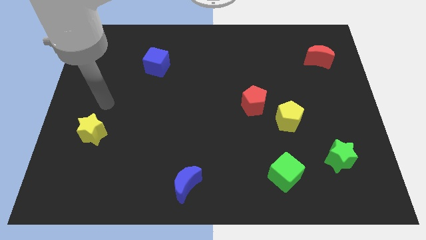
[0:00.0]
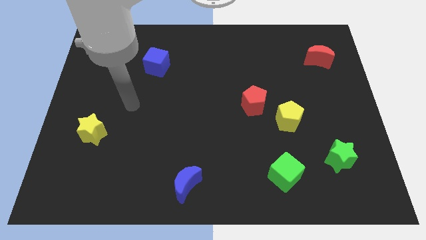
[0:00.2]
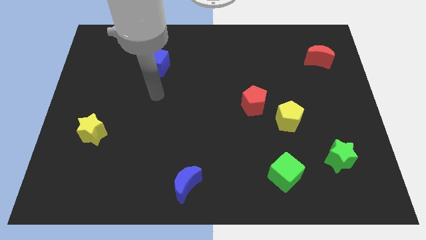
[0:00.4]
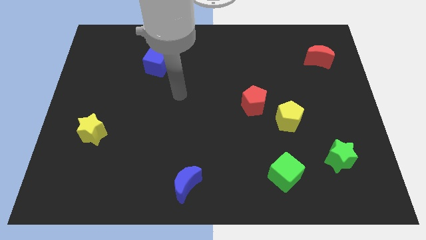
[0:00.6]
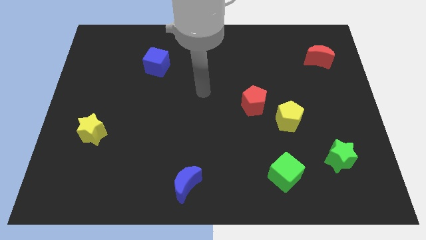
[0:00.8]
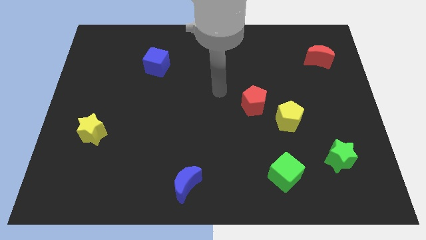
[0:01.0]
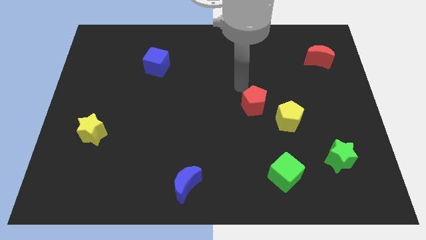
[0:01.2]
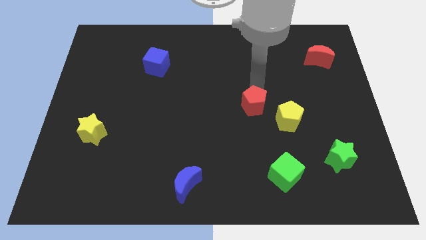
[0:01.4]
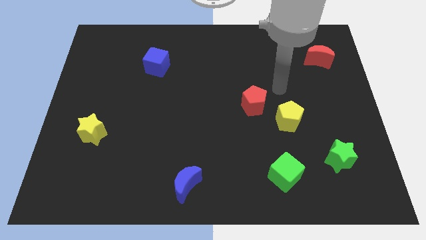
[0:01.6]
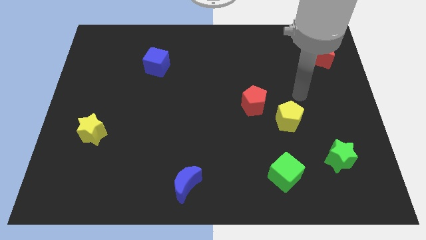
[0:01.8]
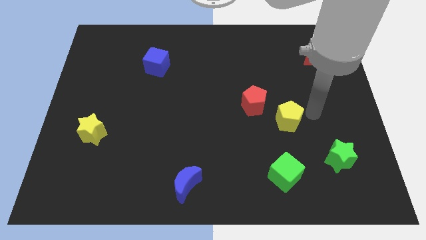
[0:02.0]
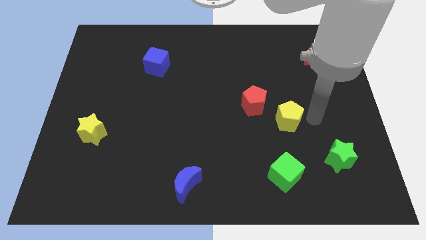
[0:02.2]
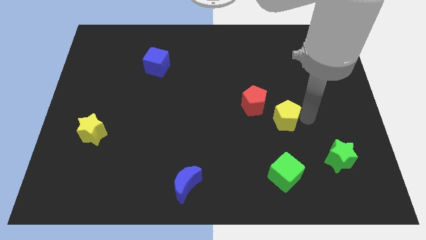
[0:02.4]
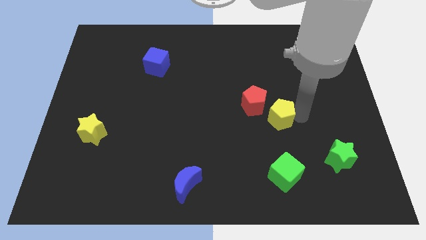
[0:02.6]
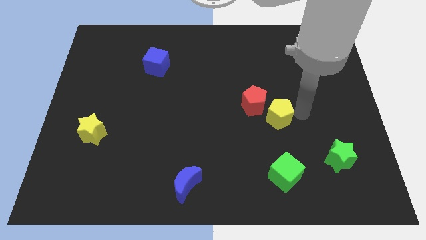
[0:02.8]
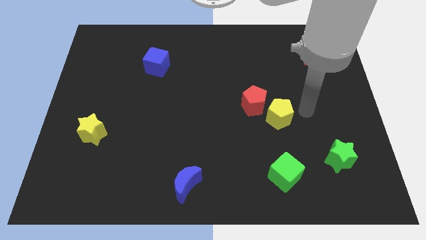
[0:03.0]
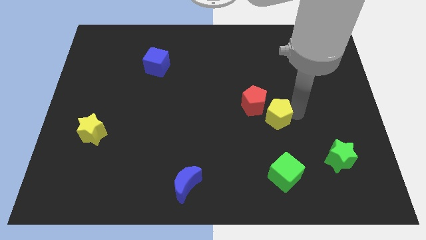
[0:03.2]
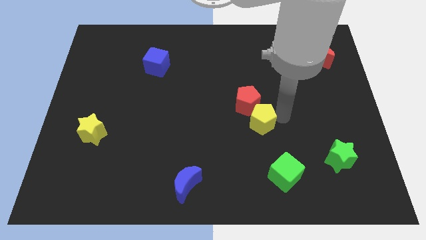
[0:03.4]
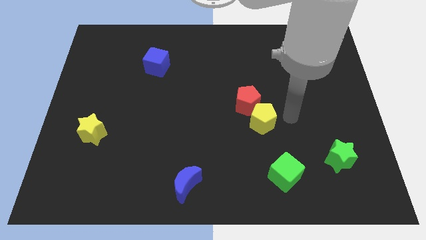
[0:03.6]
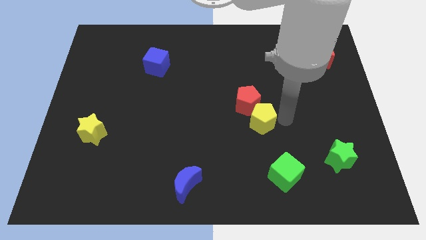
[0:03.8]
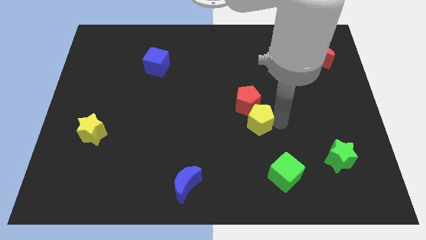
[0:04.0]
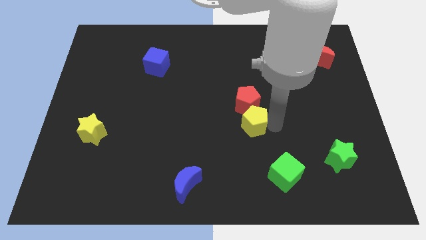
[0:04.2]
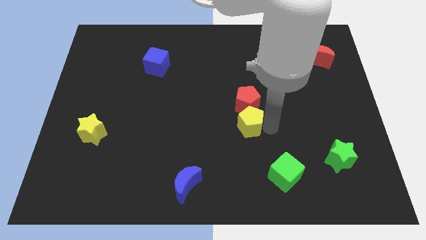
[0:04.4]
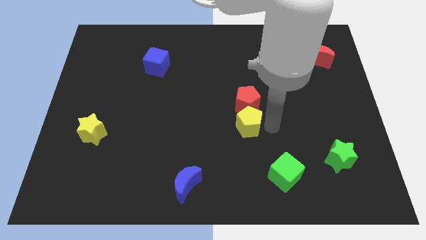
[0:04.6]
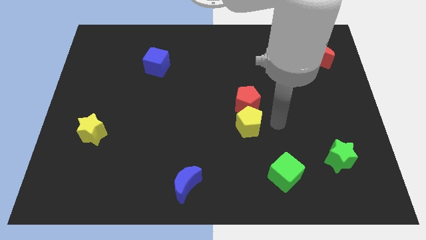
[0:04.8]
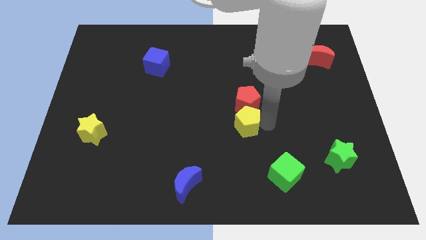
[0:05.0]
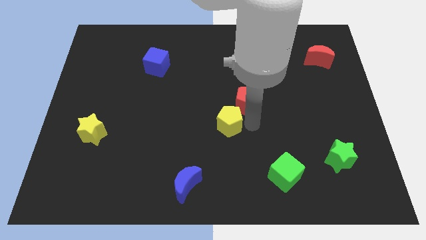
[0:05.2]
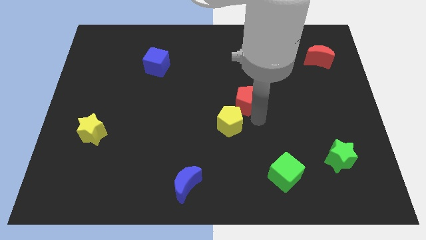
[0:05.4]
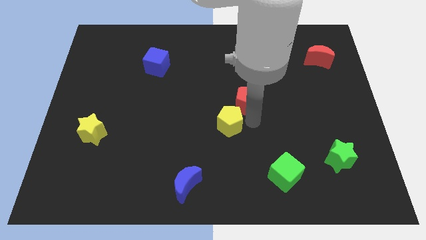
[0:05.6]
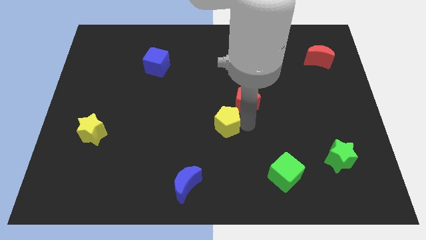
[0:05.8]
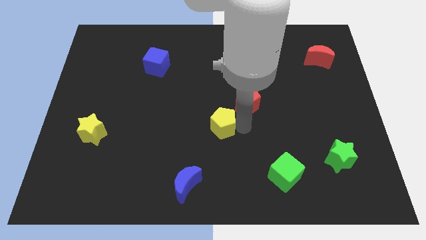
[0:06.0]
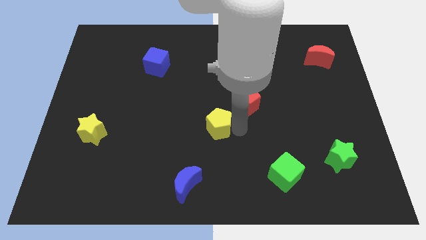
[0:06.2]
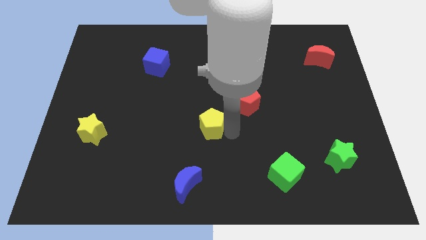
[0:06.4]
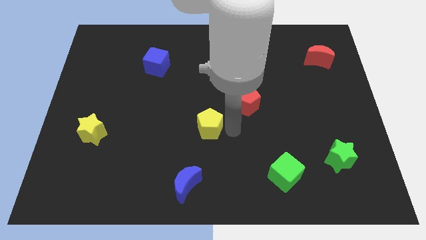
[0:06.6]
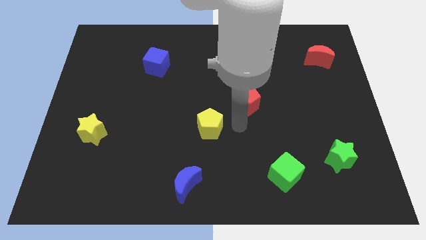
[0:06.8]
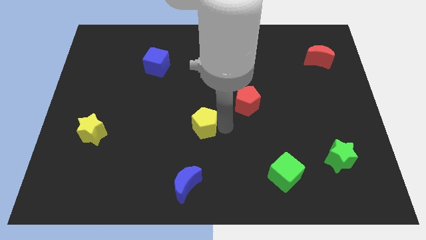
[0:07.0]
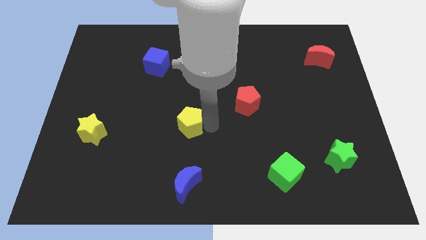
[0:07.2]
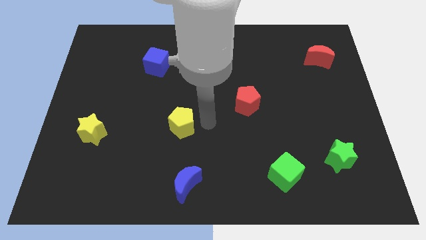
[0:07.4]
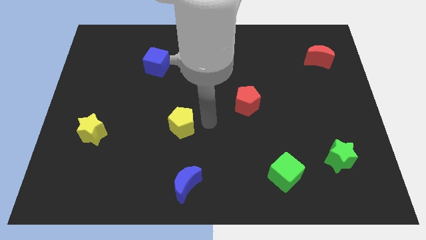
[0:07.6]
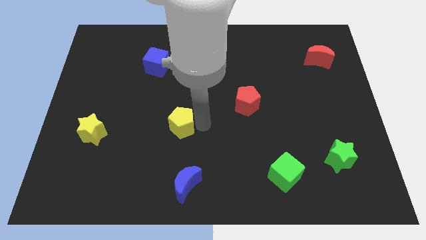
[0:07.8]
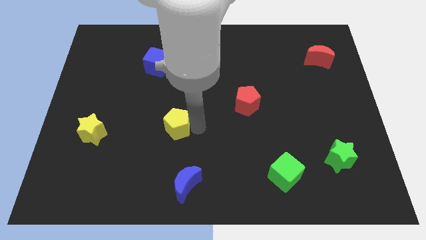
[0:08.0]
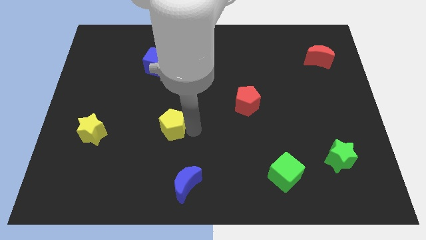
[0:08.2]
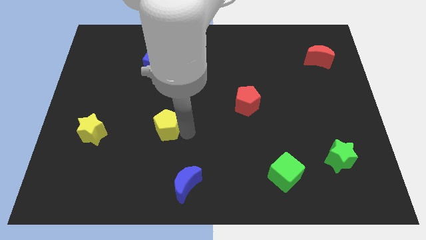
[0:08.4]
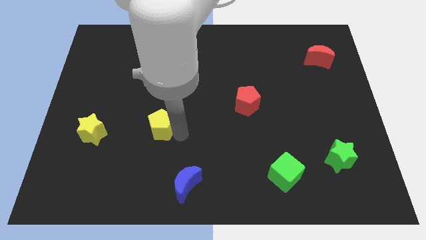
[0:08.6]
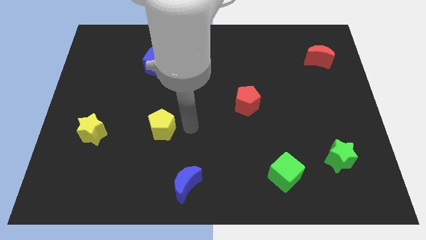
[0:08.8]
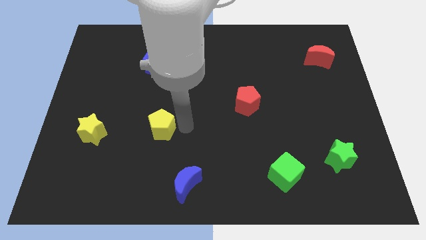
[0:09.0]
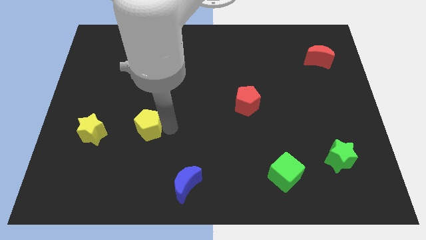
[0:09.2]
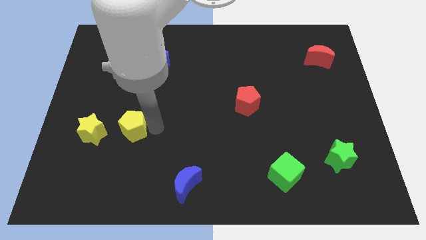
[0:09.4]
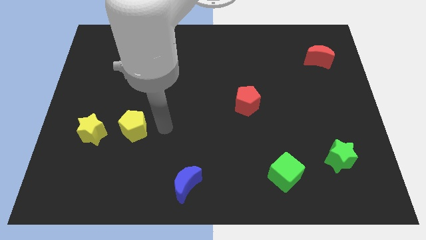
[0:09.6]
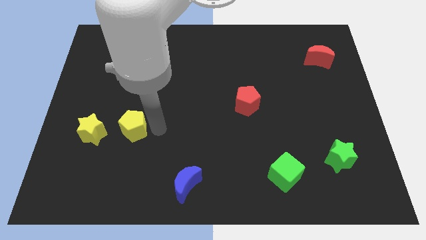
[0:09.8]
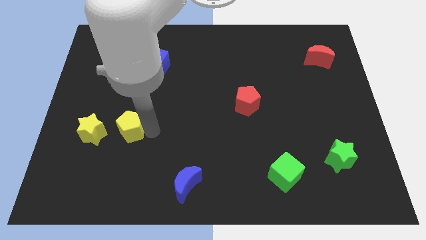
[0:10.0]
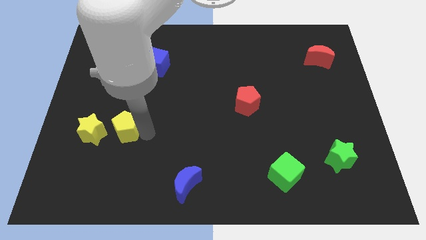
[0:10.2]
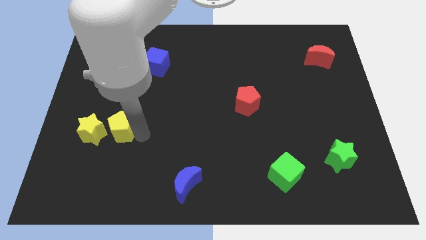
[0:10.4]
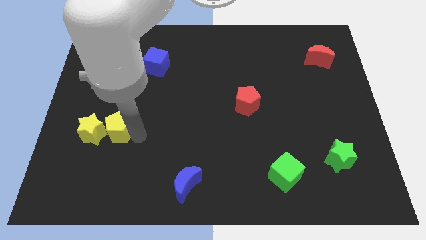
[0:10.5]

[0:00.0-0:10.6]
push the yellow pentagon close to the yellow star

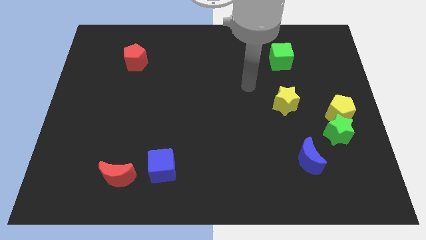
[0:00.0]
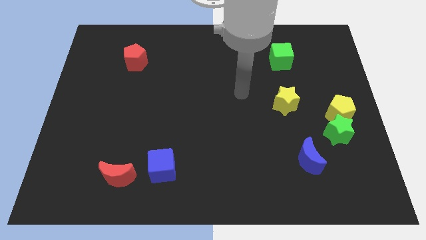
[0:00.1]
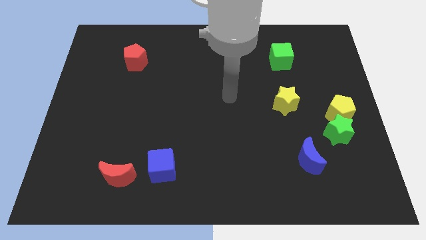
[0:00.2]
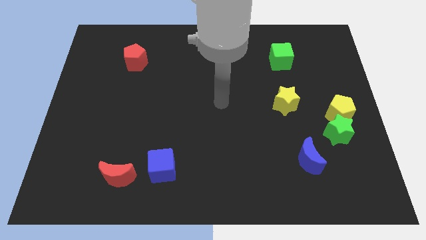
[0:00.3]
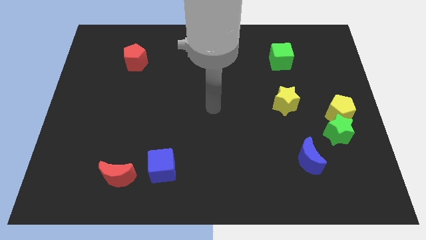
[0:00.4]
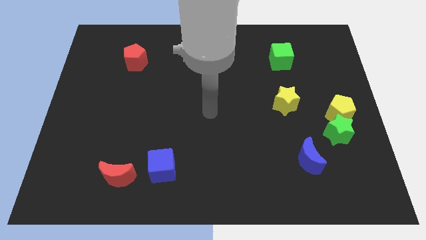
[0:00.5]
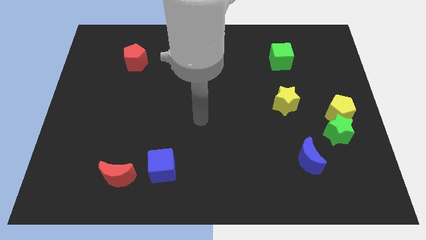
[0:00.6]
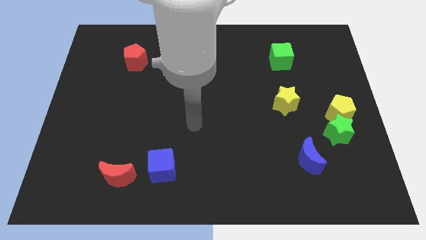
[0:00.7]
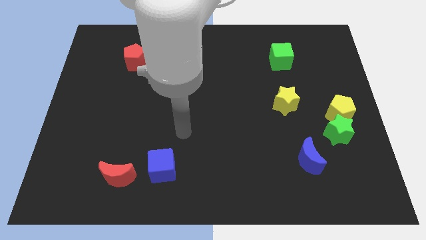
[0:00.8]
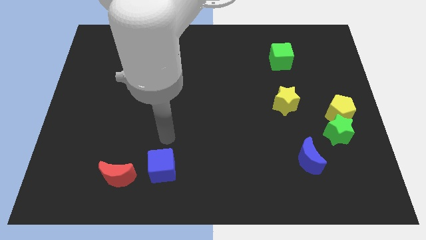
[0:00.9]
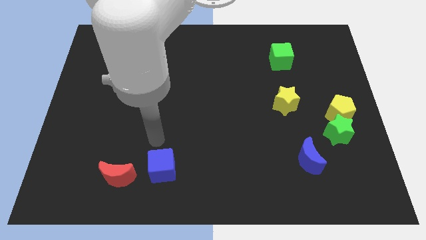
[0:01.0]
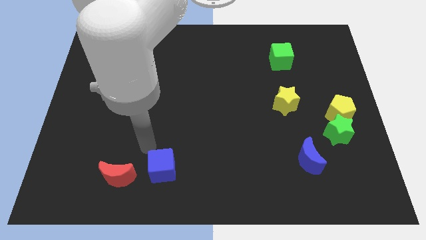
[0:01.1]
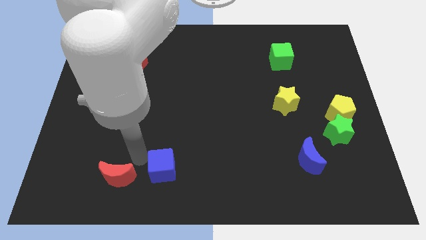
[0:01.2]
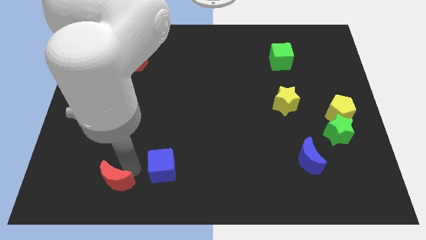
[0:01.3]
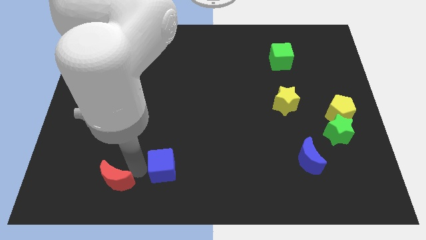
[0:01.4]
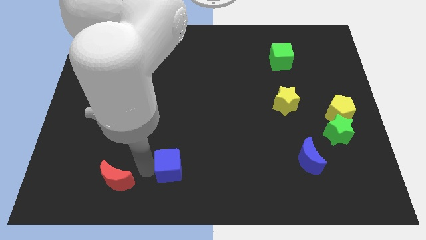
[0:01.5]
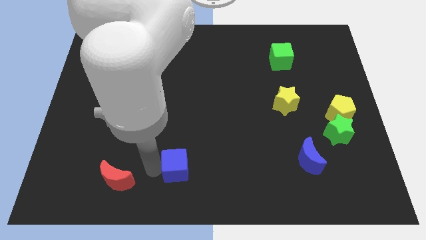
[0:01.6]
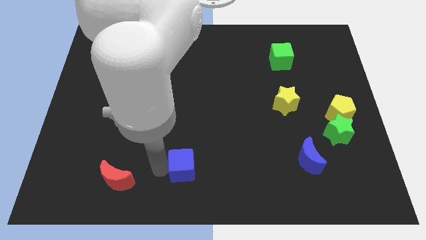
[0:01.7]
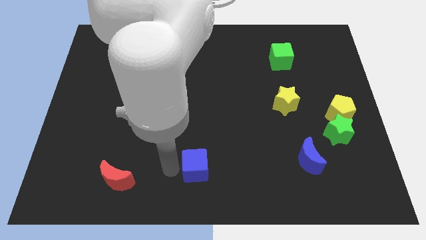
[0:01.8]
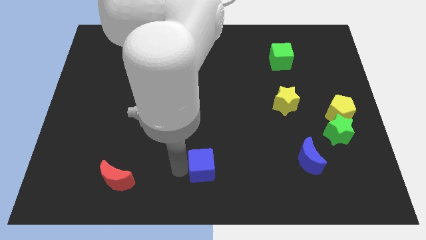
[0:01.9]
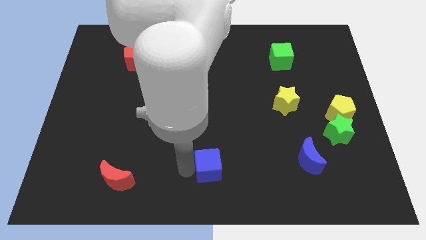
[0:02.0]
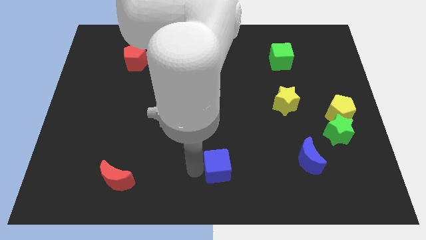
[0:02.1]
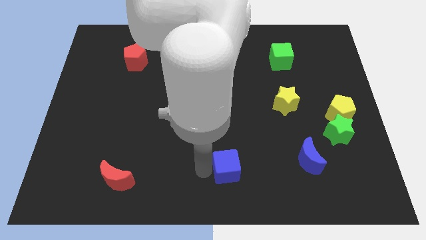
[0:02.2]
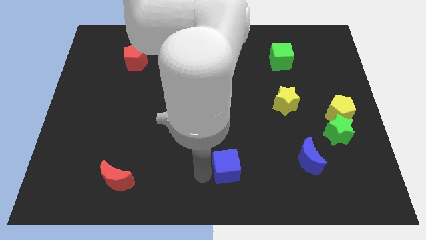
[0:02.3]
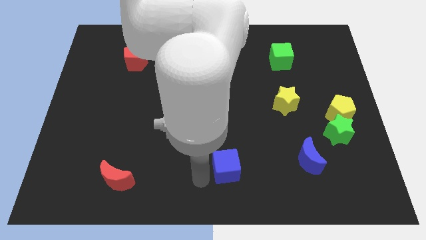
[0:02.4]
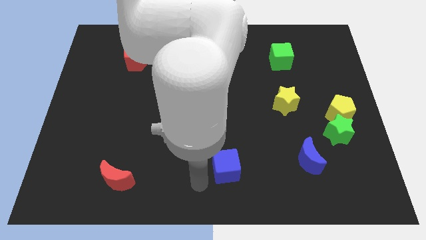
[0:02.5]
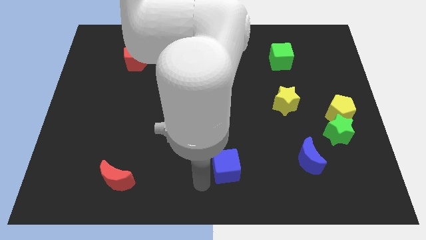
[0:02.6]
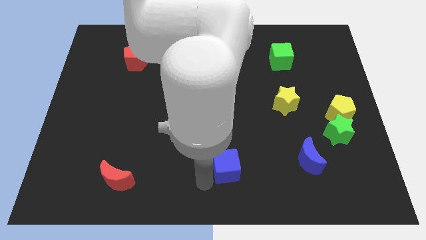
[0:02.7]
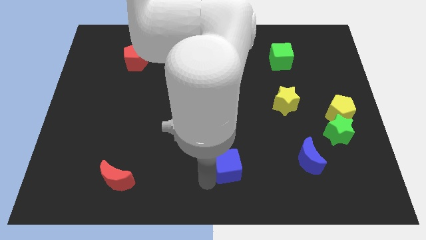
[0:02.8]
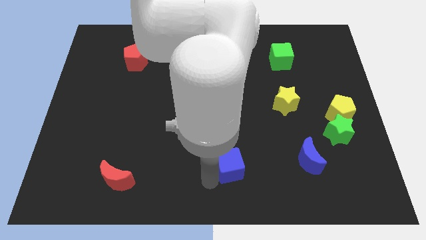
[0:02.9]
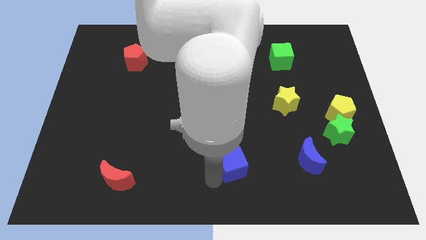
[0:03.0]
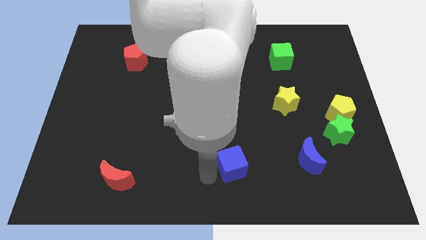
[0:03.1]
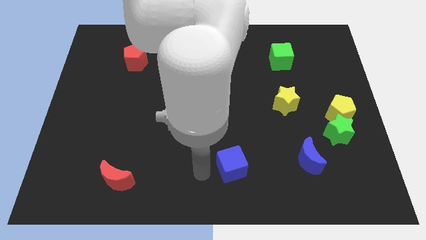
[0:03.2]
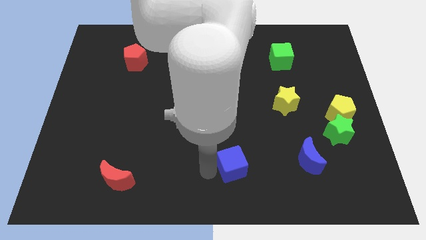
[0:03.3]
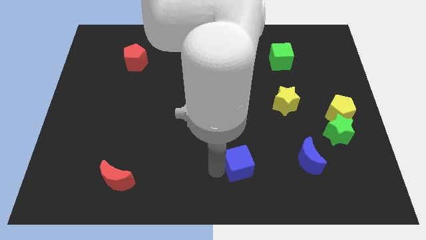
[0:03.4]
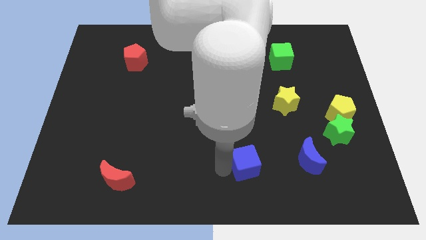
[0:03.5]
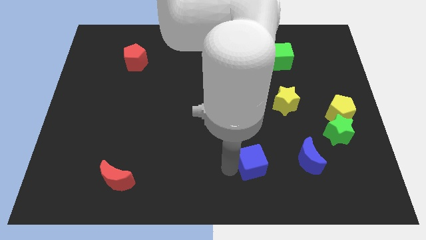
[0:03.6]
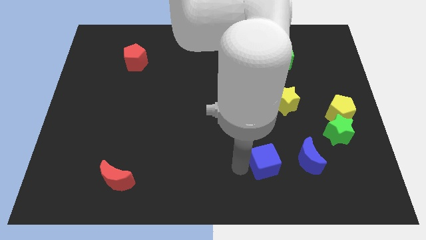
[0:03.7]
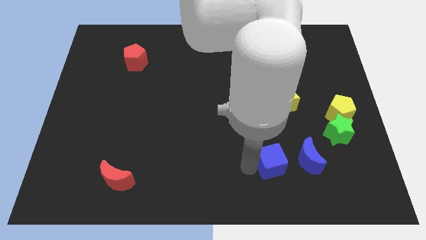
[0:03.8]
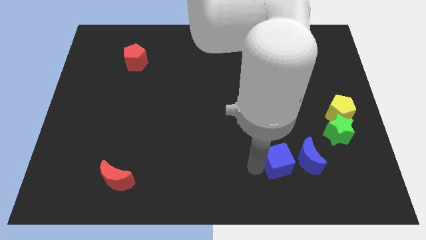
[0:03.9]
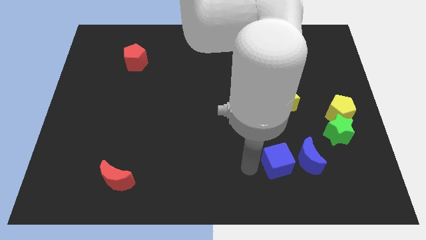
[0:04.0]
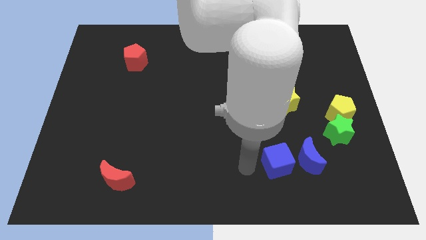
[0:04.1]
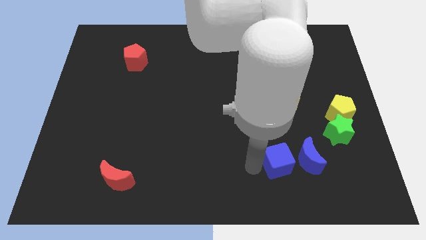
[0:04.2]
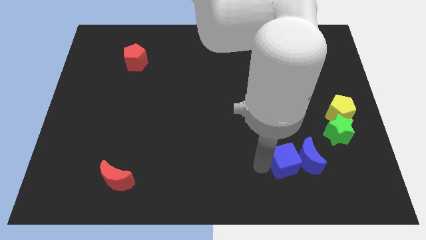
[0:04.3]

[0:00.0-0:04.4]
push the blue cube close to the blue moon
